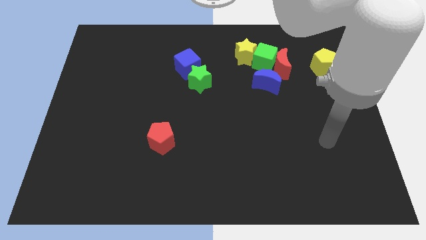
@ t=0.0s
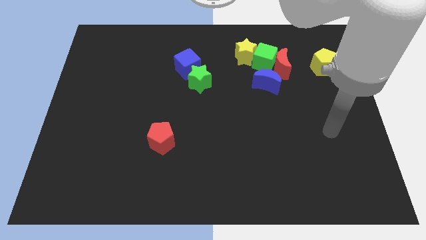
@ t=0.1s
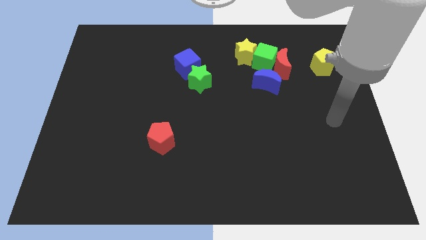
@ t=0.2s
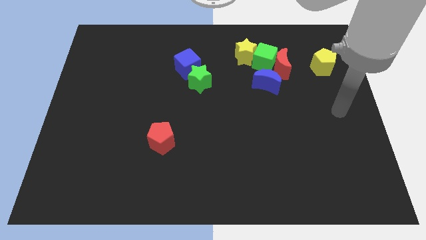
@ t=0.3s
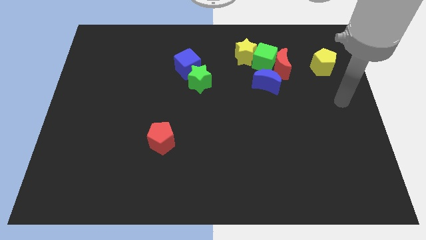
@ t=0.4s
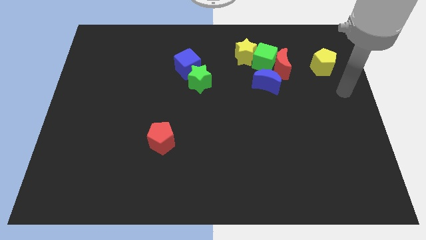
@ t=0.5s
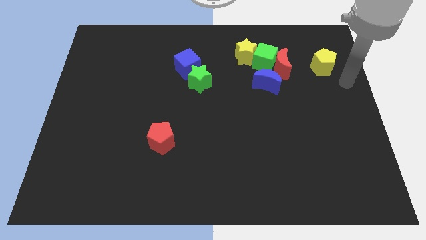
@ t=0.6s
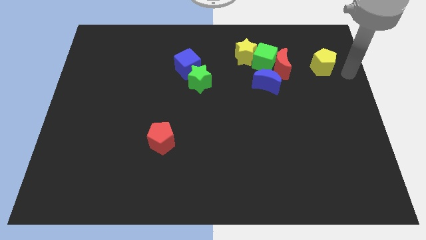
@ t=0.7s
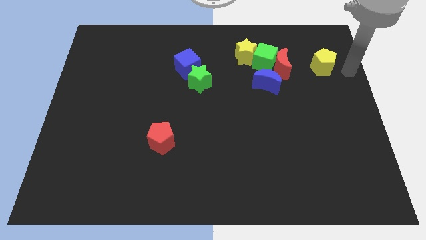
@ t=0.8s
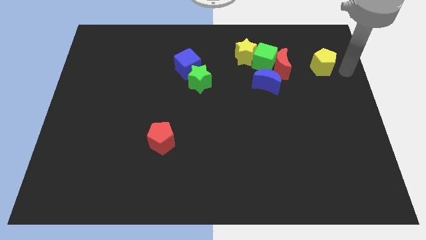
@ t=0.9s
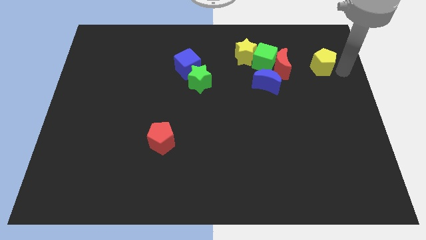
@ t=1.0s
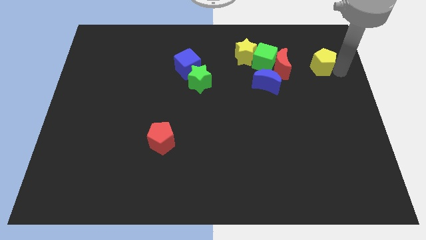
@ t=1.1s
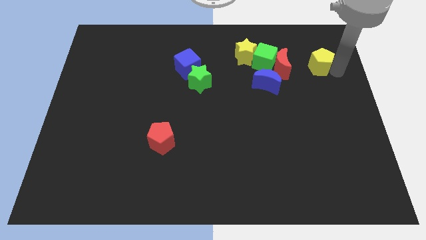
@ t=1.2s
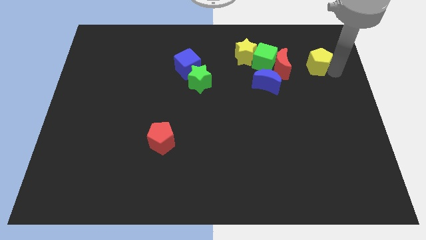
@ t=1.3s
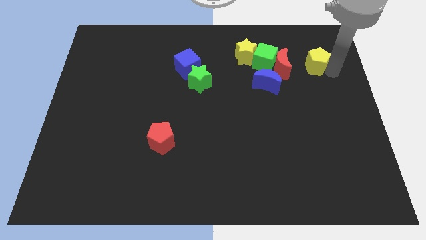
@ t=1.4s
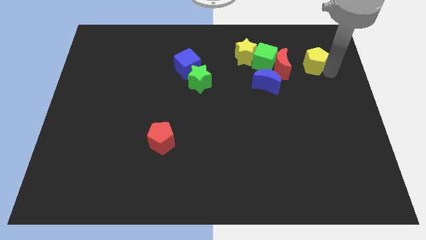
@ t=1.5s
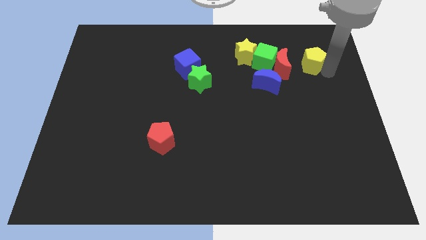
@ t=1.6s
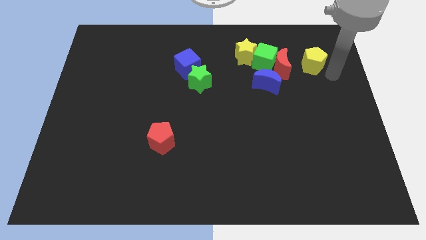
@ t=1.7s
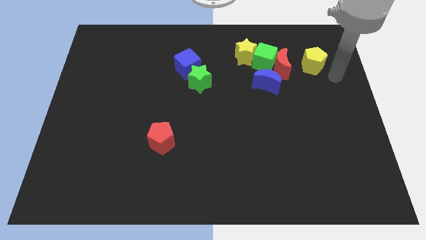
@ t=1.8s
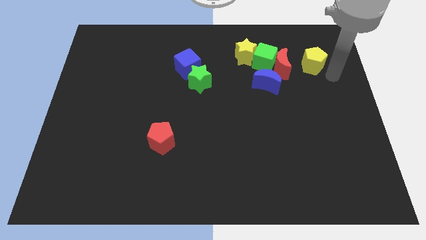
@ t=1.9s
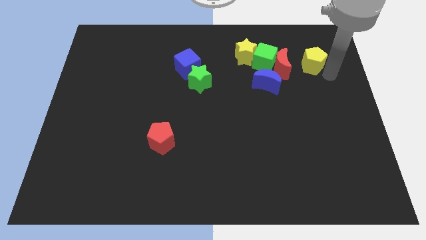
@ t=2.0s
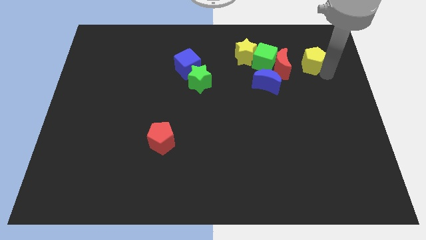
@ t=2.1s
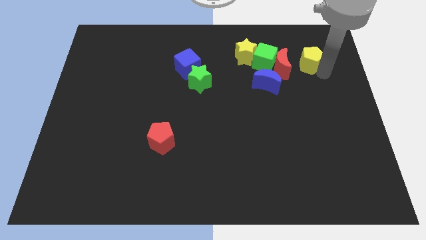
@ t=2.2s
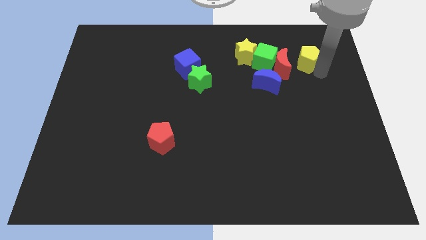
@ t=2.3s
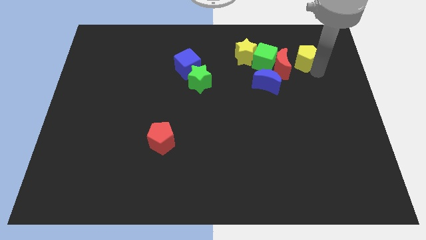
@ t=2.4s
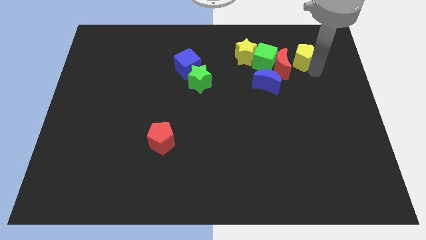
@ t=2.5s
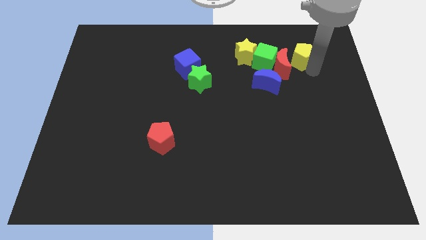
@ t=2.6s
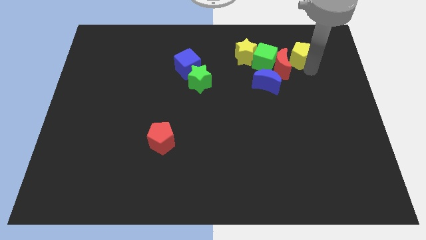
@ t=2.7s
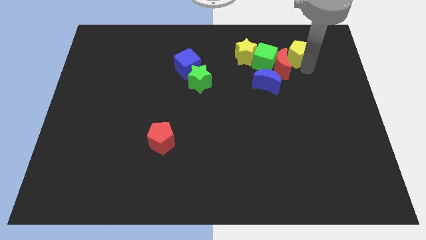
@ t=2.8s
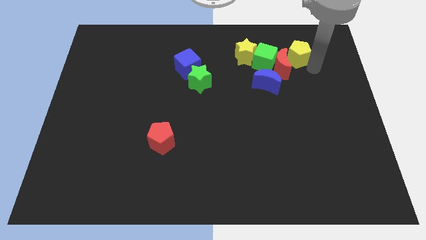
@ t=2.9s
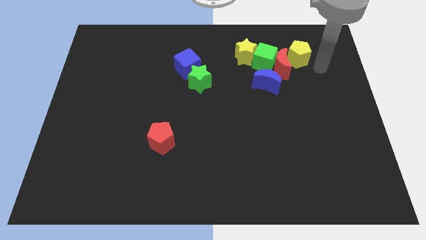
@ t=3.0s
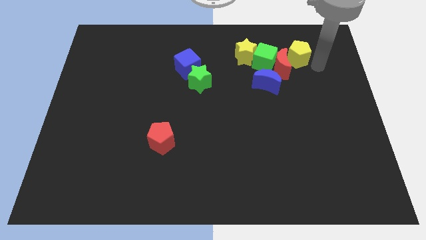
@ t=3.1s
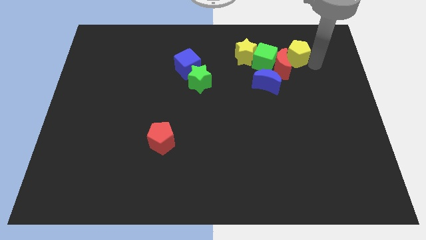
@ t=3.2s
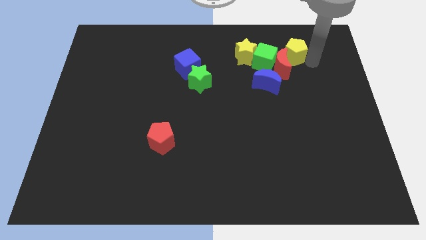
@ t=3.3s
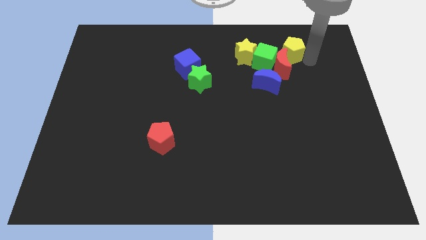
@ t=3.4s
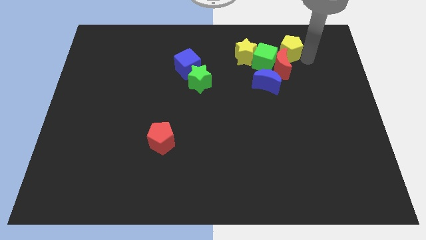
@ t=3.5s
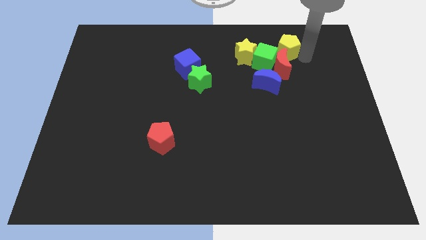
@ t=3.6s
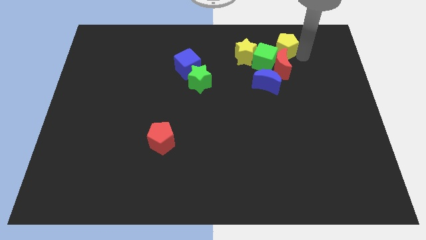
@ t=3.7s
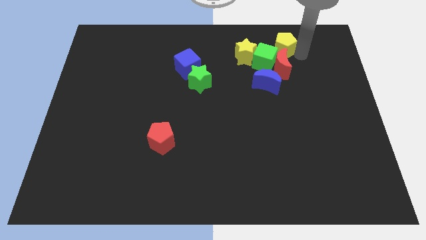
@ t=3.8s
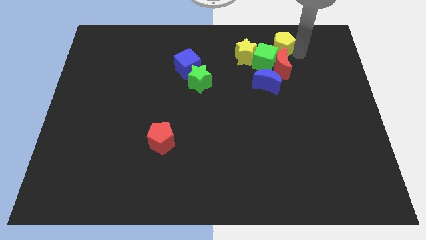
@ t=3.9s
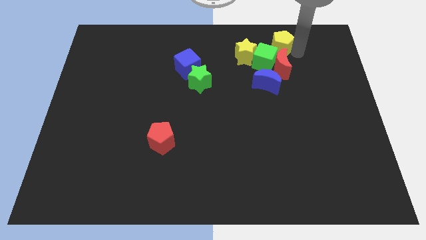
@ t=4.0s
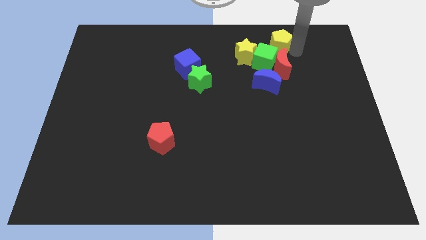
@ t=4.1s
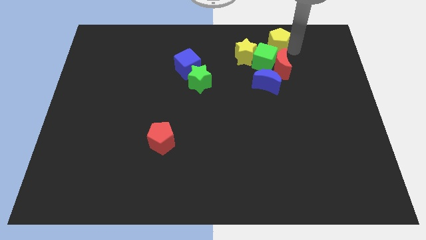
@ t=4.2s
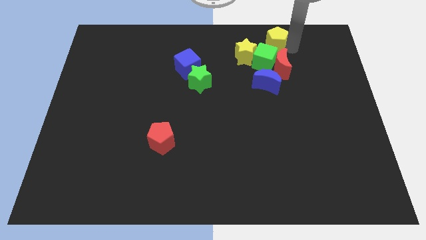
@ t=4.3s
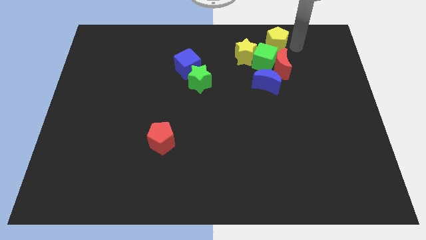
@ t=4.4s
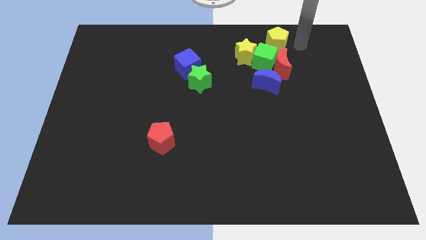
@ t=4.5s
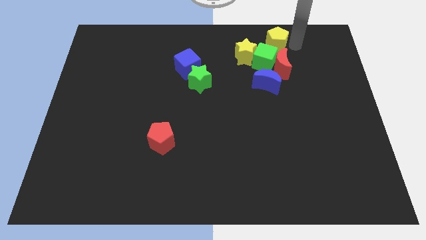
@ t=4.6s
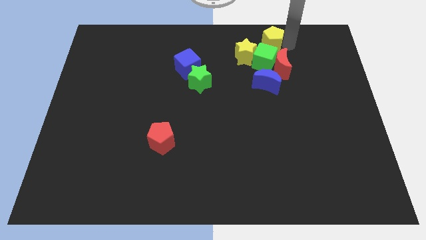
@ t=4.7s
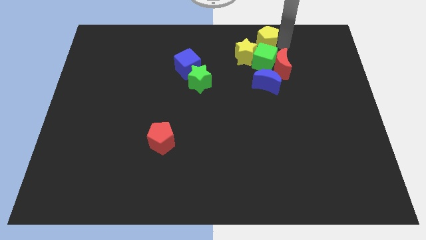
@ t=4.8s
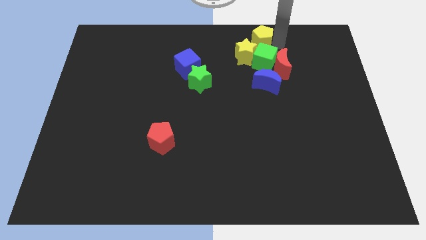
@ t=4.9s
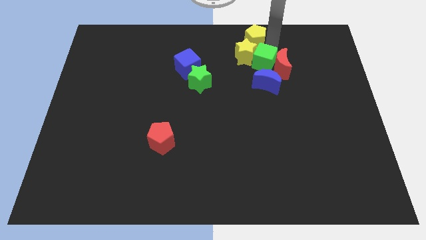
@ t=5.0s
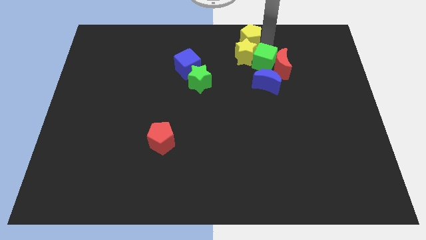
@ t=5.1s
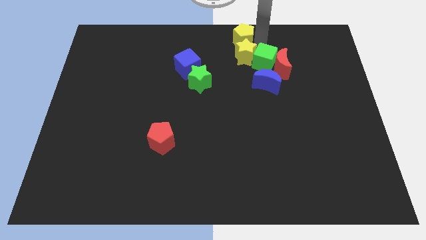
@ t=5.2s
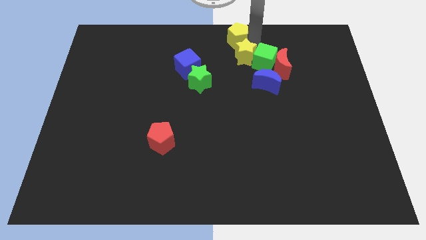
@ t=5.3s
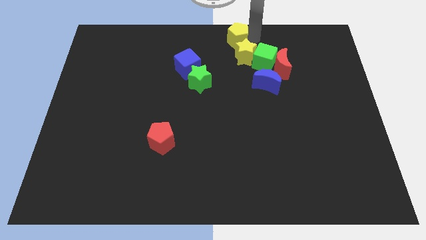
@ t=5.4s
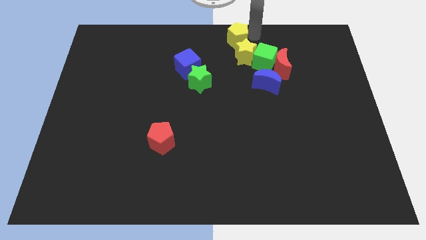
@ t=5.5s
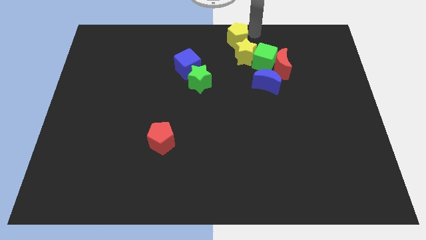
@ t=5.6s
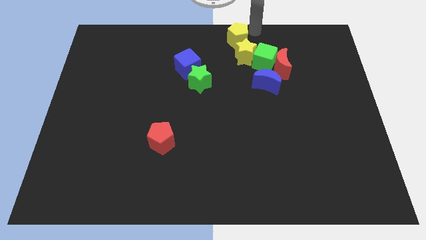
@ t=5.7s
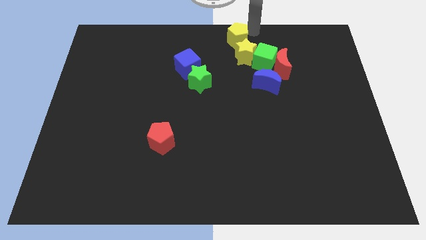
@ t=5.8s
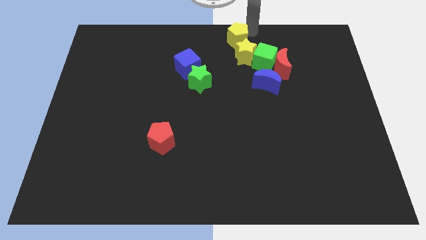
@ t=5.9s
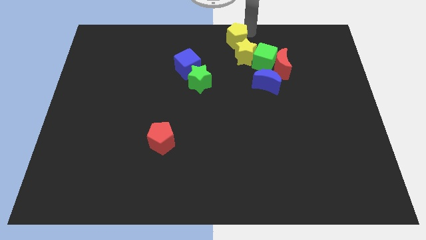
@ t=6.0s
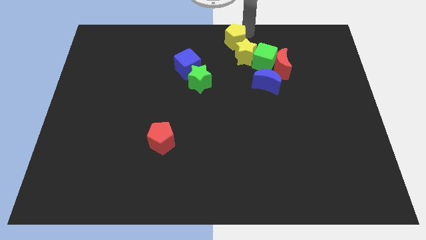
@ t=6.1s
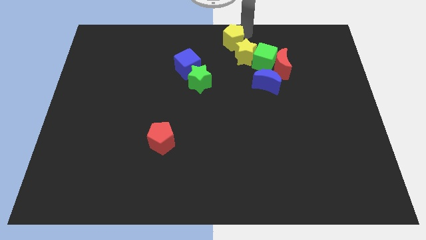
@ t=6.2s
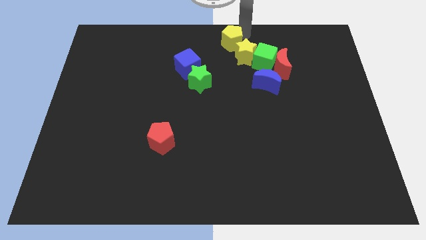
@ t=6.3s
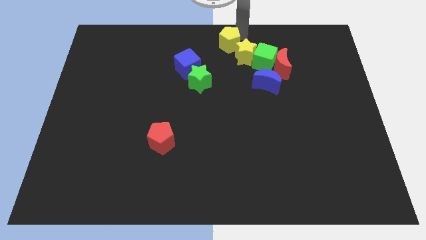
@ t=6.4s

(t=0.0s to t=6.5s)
put the yellow pentagon just left of the yellow star
